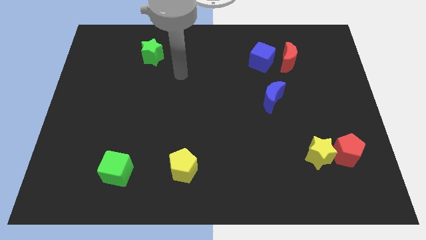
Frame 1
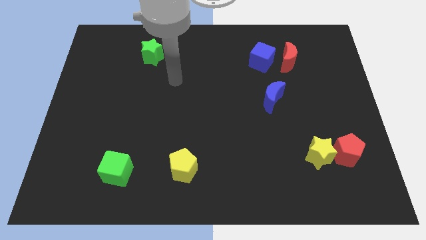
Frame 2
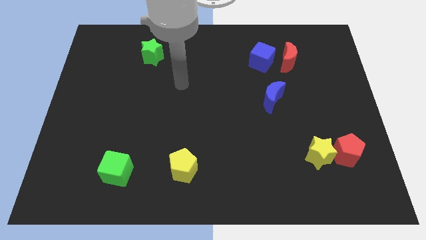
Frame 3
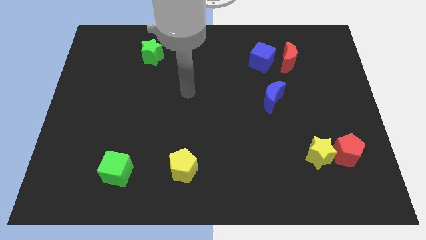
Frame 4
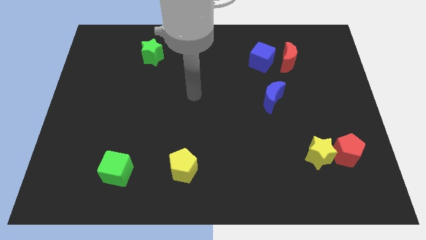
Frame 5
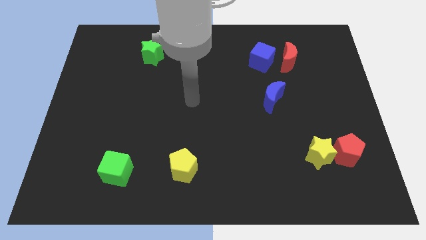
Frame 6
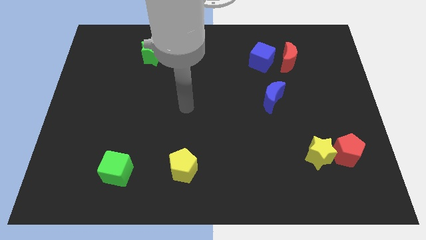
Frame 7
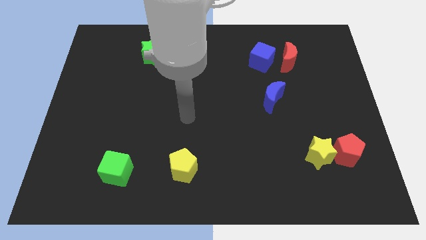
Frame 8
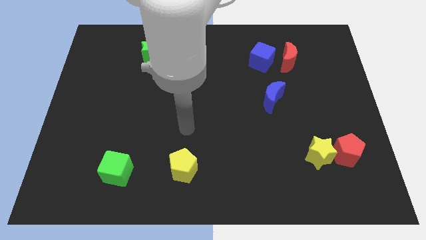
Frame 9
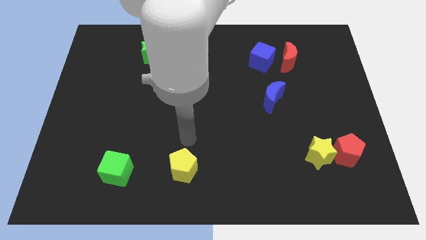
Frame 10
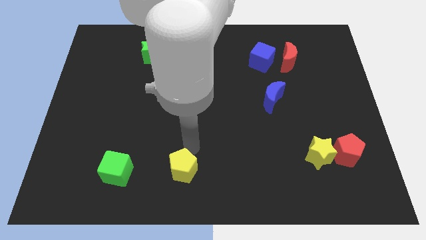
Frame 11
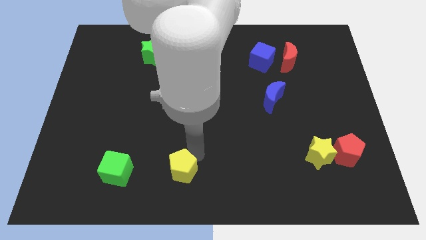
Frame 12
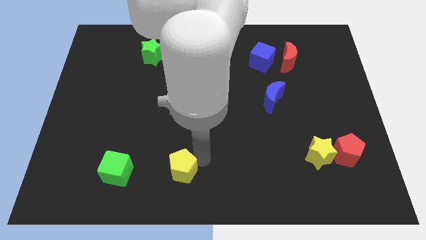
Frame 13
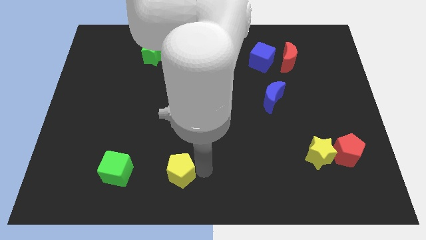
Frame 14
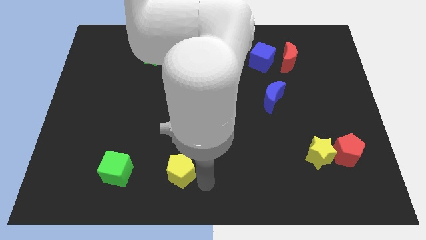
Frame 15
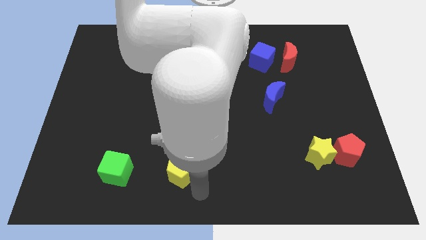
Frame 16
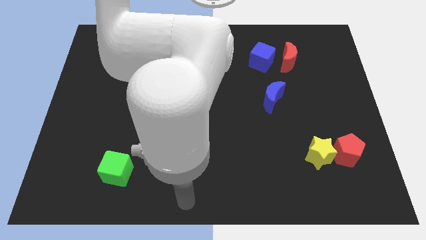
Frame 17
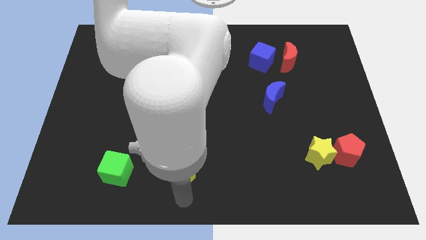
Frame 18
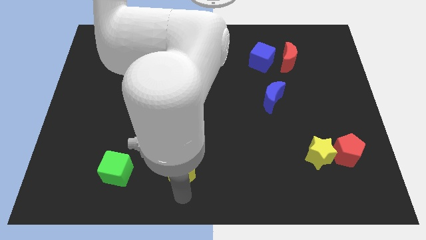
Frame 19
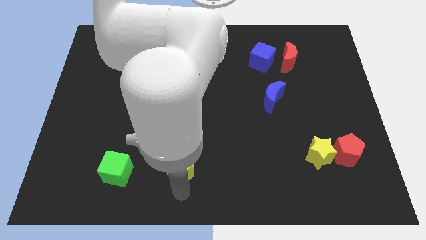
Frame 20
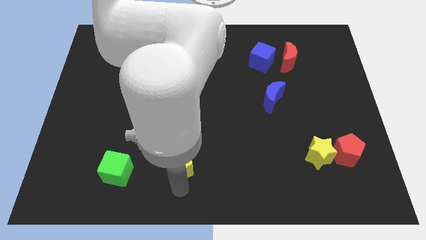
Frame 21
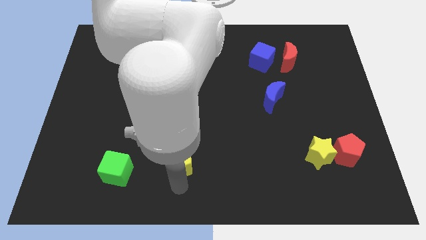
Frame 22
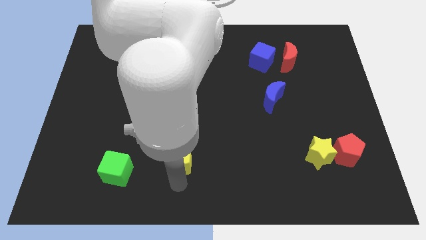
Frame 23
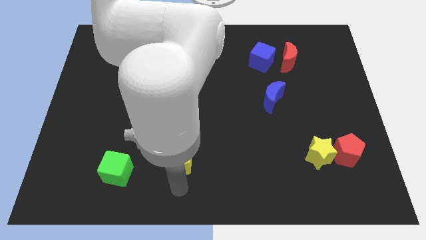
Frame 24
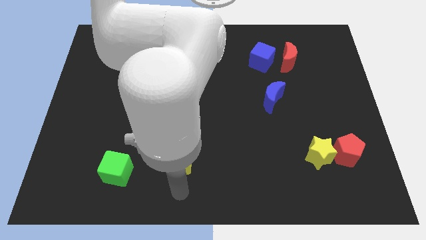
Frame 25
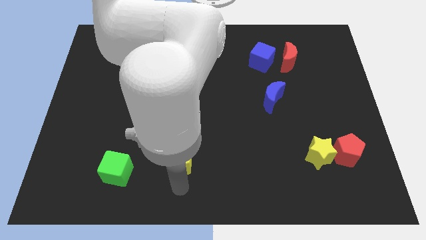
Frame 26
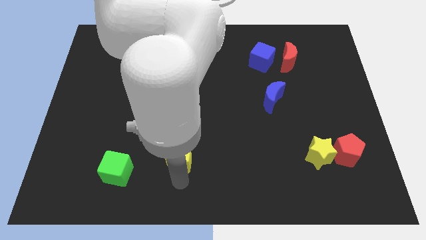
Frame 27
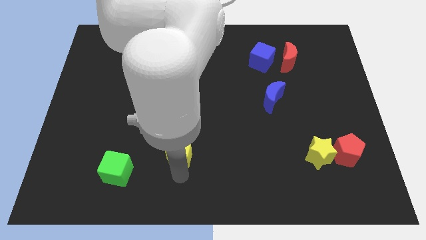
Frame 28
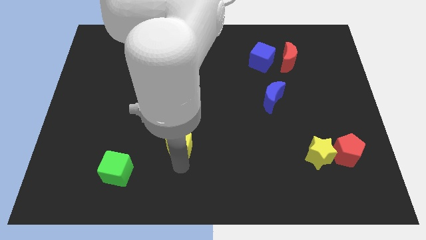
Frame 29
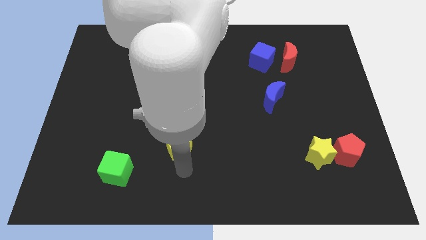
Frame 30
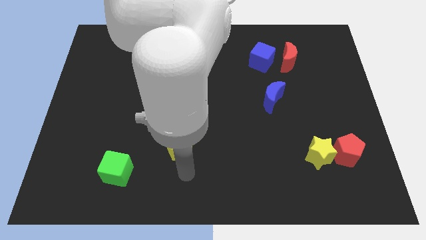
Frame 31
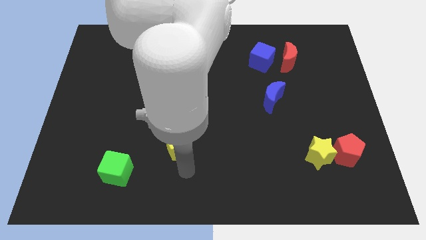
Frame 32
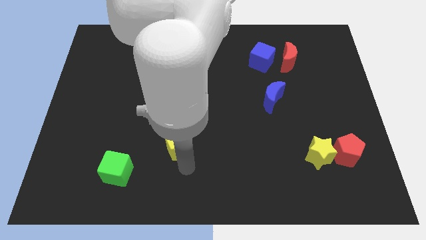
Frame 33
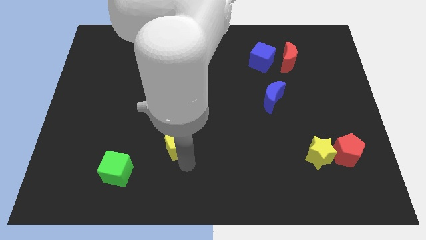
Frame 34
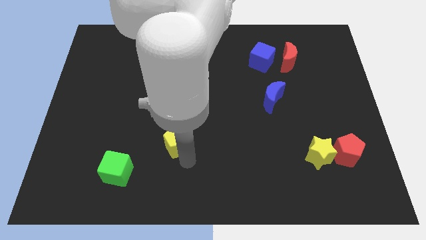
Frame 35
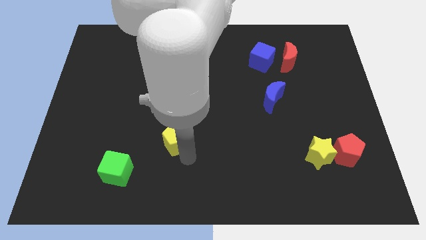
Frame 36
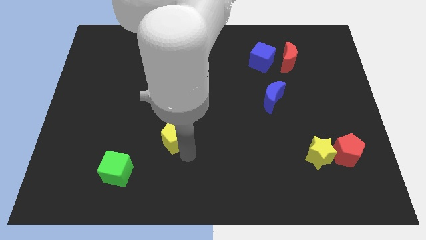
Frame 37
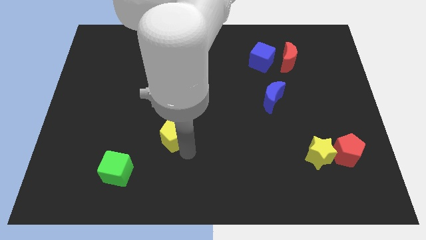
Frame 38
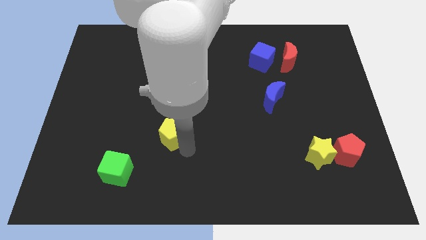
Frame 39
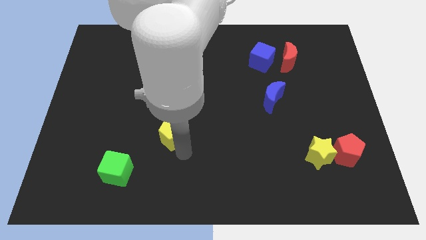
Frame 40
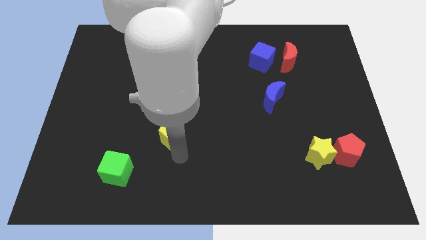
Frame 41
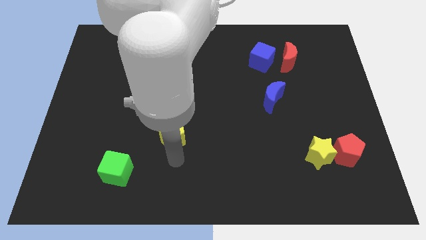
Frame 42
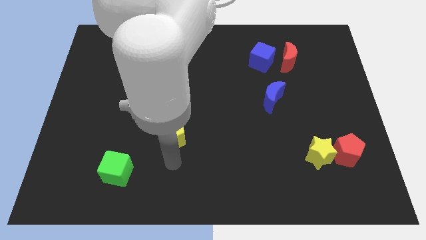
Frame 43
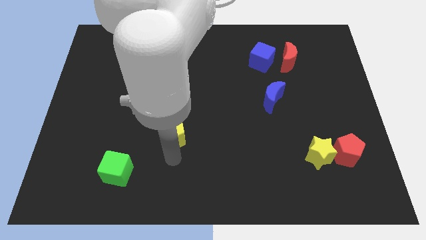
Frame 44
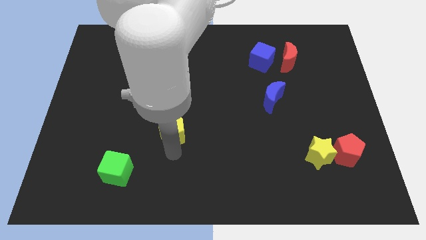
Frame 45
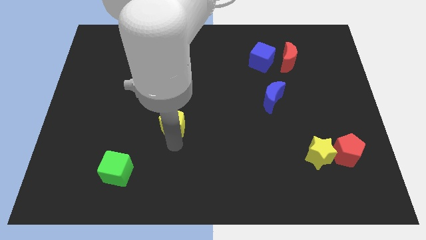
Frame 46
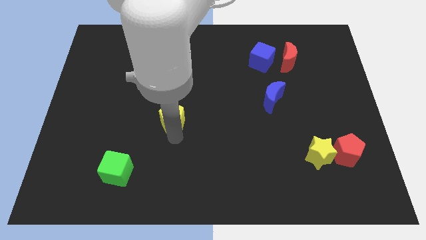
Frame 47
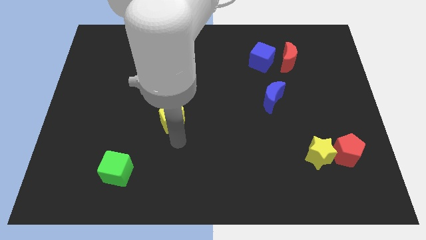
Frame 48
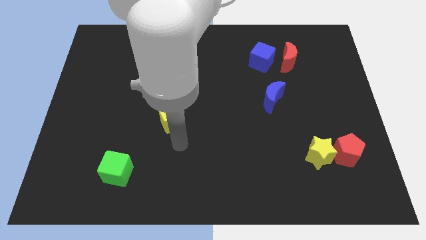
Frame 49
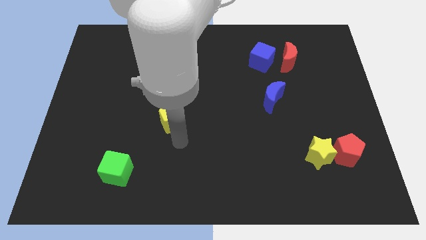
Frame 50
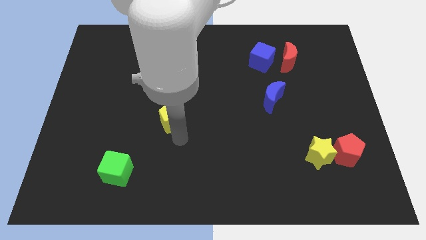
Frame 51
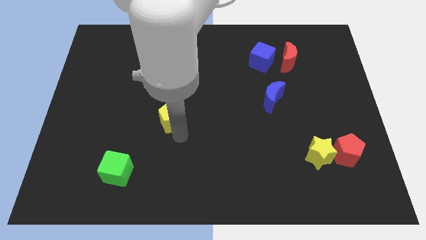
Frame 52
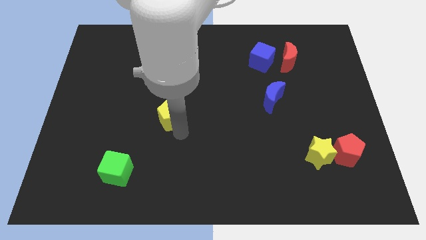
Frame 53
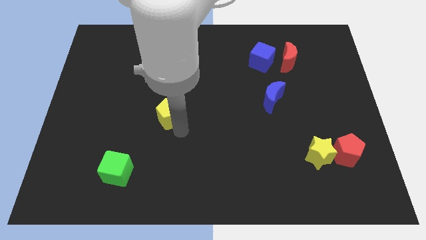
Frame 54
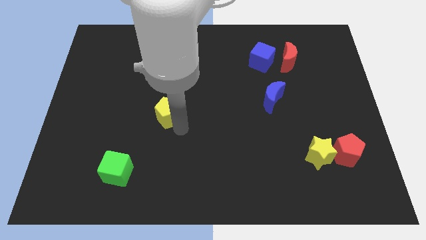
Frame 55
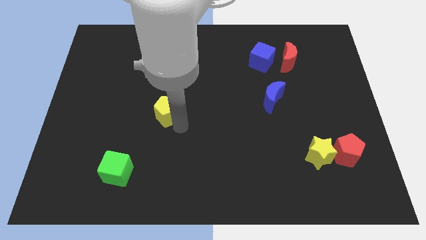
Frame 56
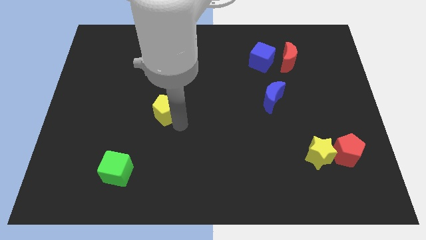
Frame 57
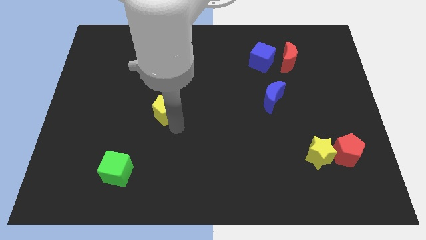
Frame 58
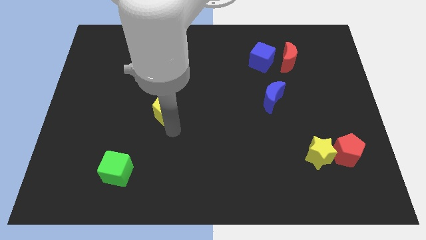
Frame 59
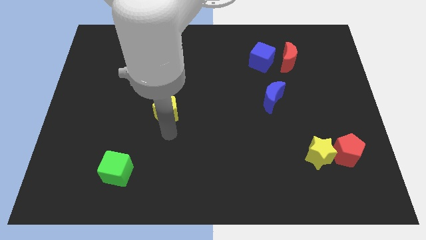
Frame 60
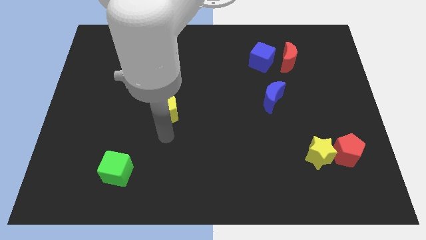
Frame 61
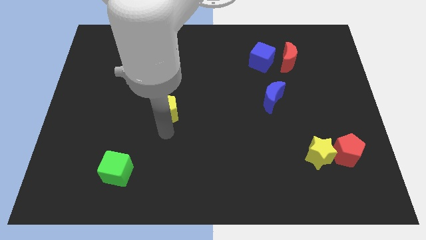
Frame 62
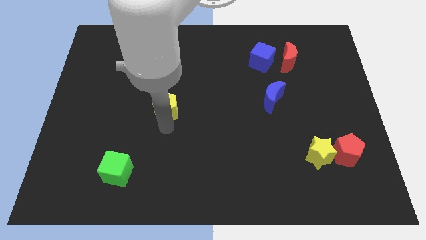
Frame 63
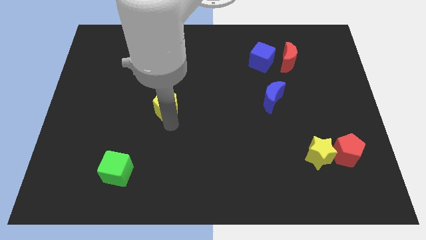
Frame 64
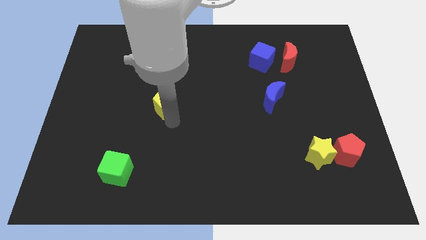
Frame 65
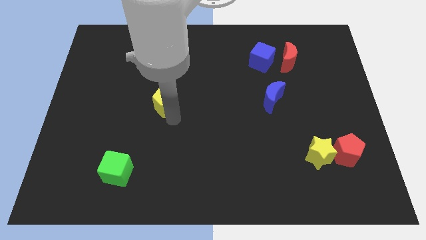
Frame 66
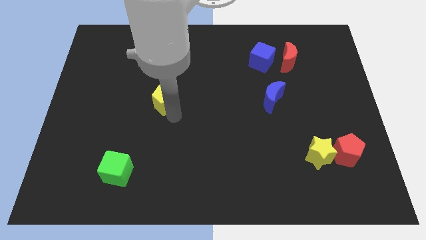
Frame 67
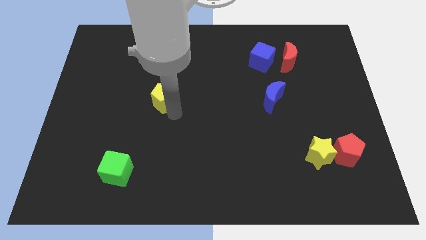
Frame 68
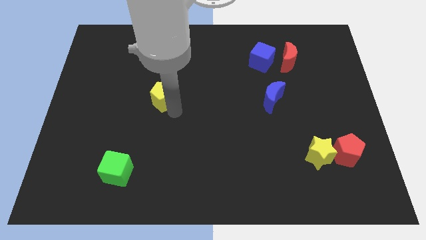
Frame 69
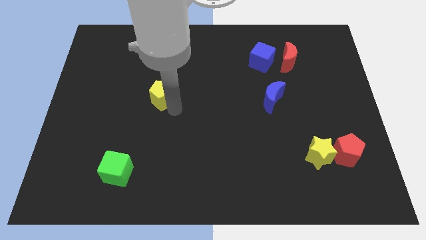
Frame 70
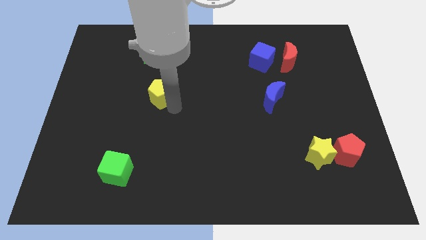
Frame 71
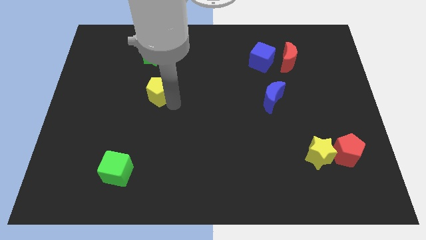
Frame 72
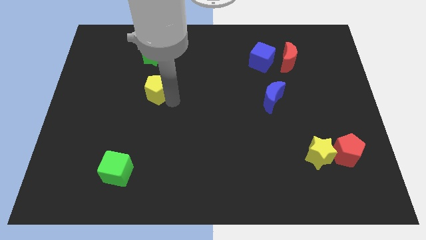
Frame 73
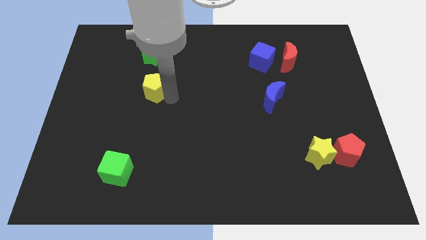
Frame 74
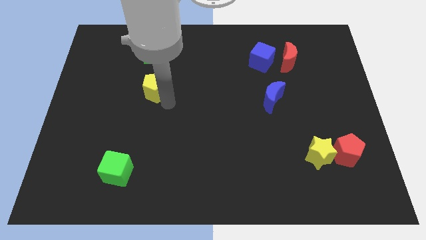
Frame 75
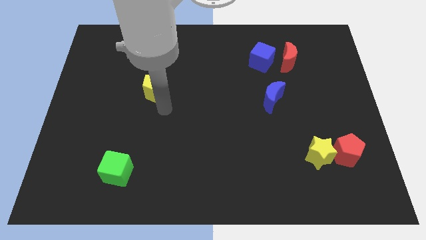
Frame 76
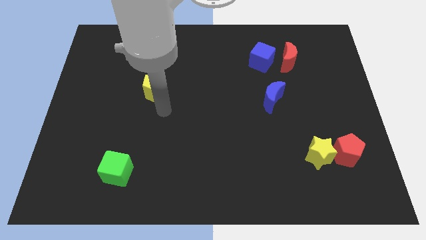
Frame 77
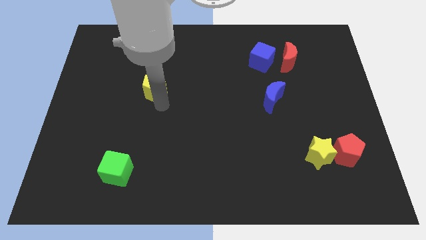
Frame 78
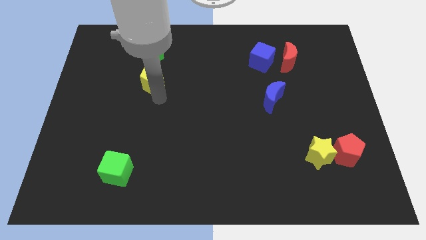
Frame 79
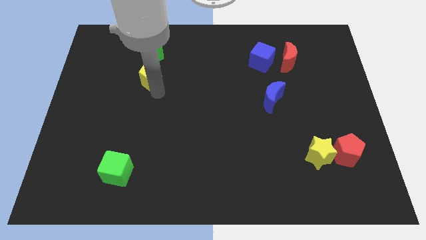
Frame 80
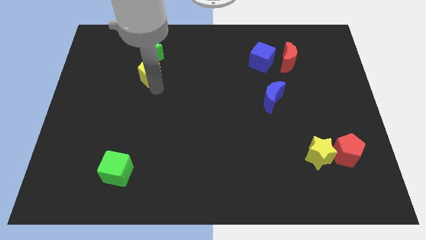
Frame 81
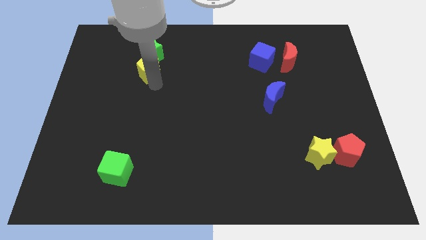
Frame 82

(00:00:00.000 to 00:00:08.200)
move the yellow pentagon close to the green star

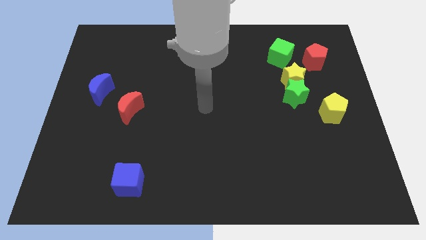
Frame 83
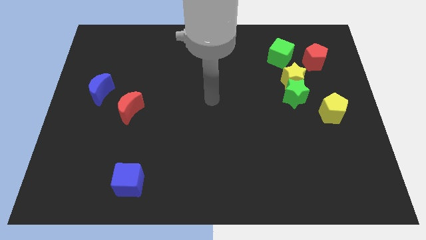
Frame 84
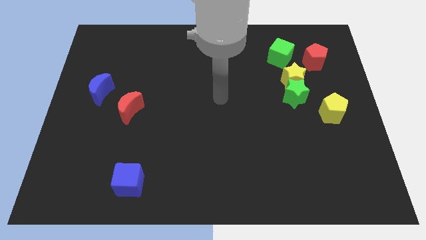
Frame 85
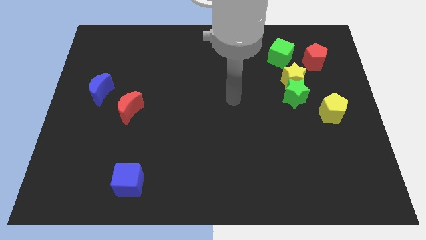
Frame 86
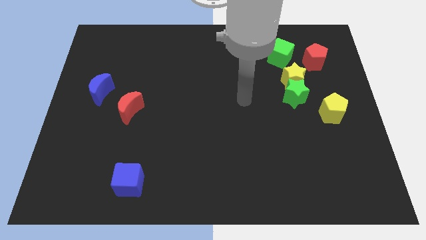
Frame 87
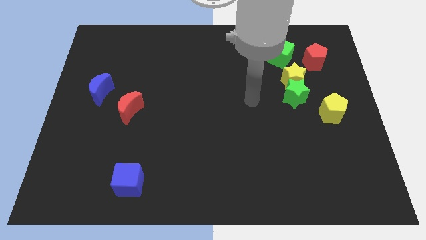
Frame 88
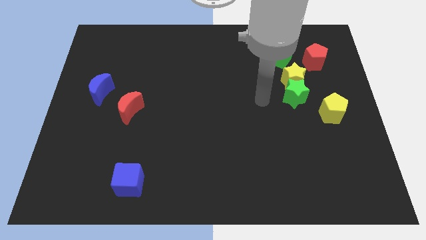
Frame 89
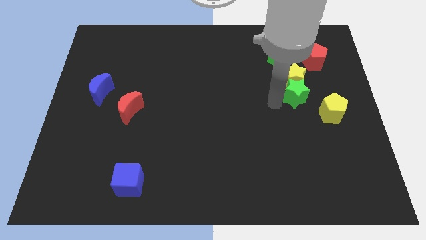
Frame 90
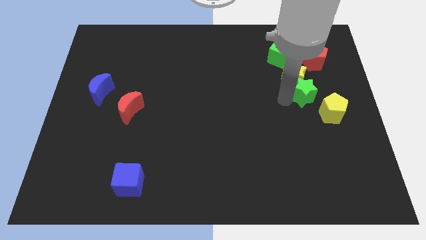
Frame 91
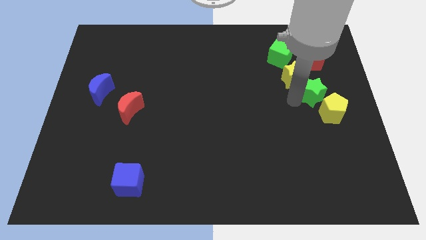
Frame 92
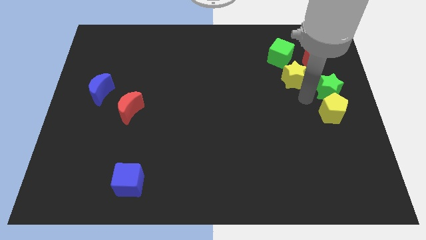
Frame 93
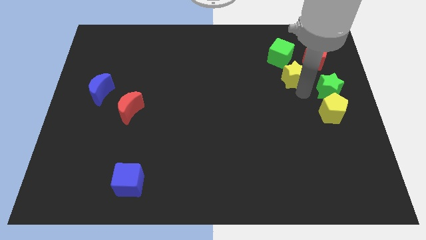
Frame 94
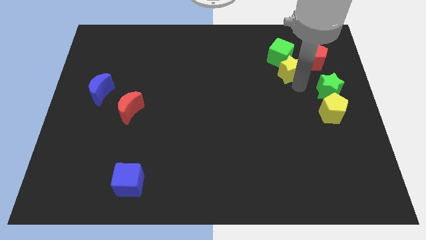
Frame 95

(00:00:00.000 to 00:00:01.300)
move the yellow star next to the green cube
